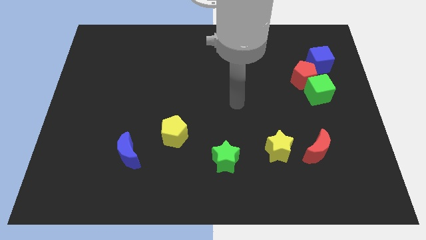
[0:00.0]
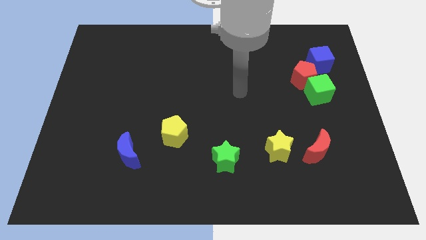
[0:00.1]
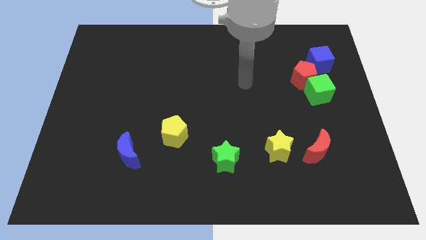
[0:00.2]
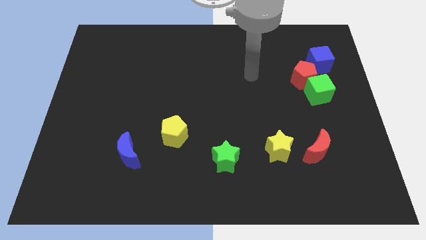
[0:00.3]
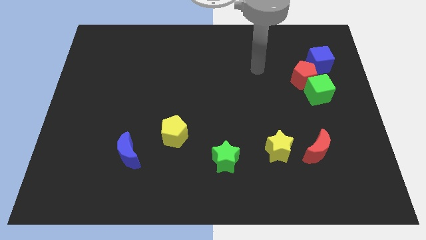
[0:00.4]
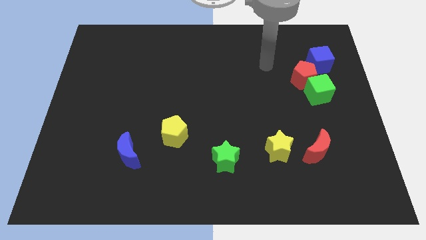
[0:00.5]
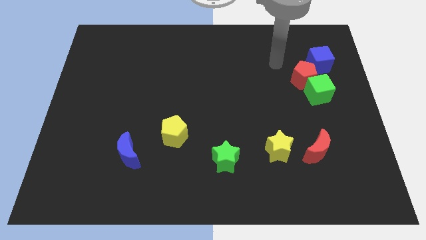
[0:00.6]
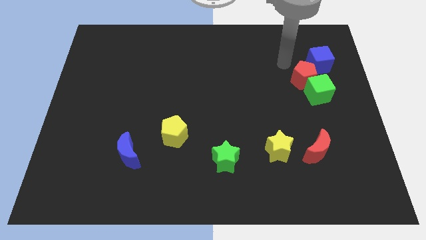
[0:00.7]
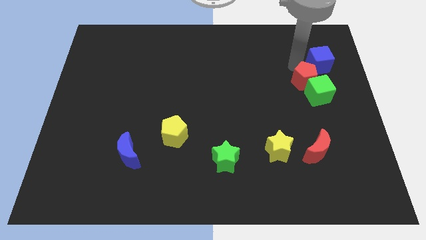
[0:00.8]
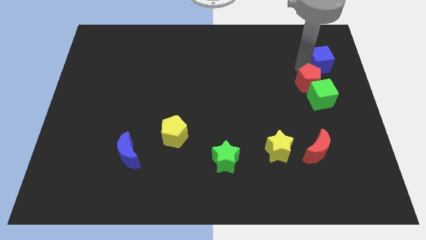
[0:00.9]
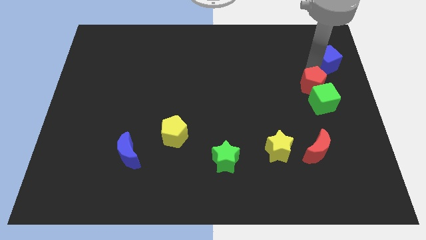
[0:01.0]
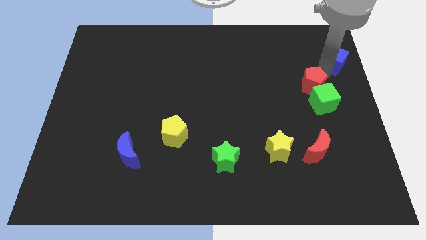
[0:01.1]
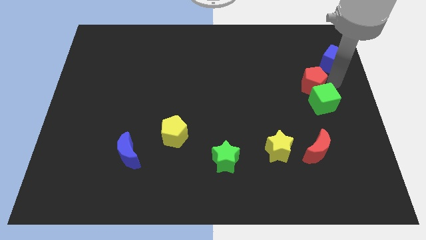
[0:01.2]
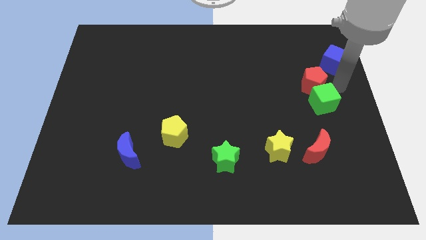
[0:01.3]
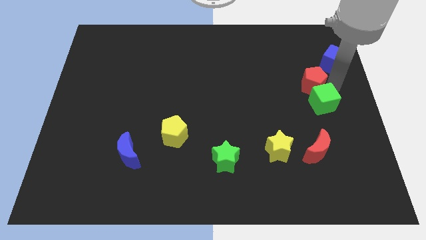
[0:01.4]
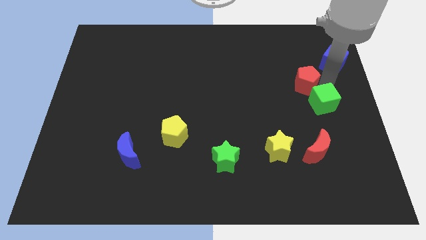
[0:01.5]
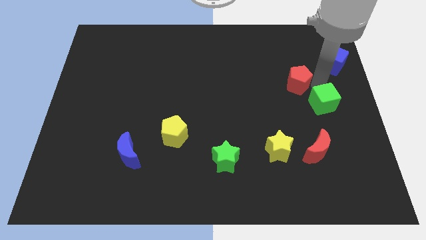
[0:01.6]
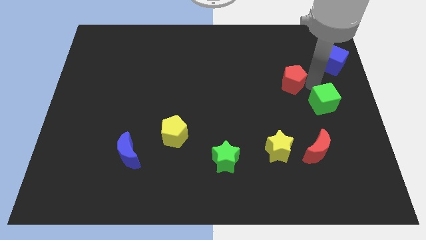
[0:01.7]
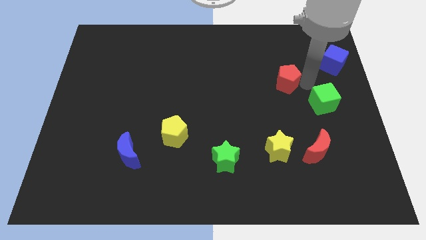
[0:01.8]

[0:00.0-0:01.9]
pull the red pentagon apart from the green cube and blue cube

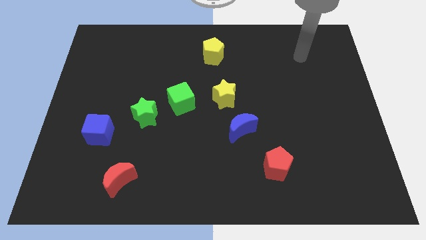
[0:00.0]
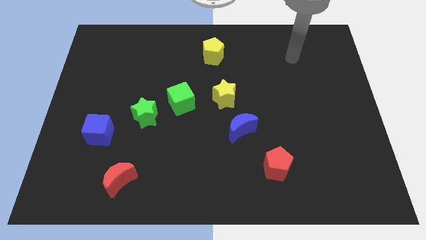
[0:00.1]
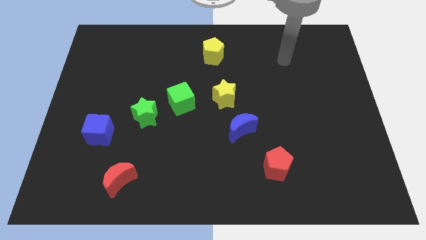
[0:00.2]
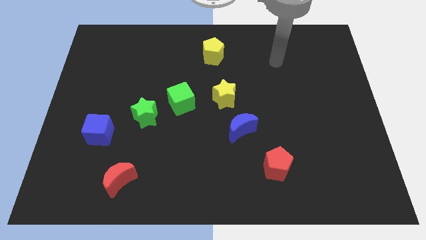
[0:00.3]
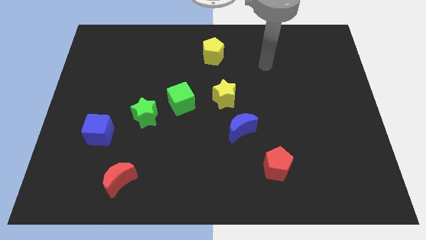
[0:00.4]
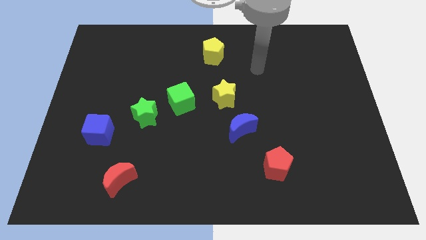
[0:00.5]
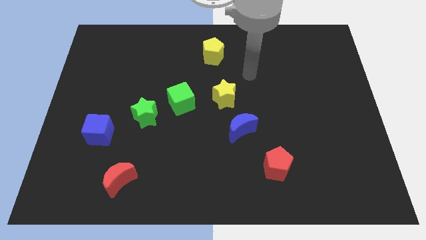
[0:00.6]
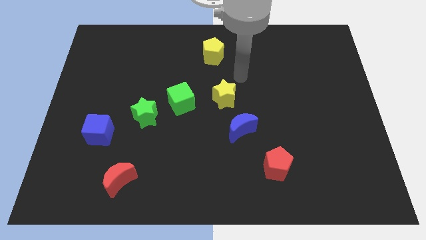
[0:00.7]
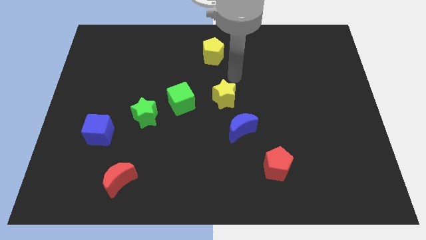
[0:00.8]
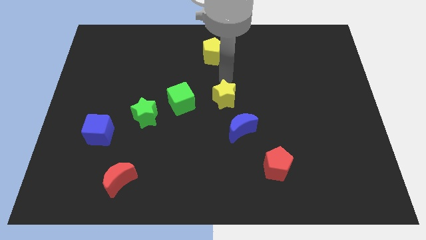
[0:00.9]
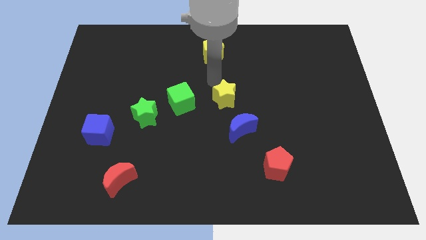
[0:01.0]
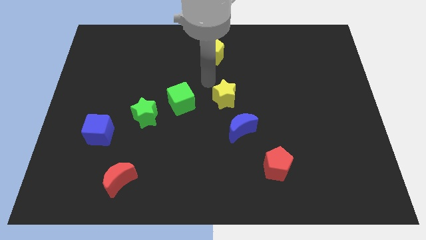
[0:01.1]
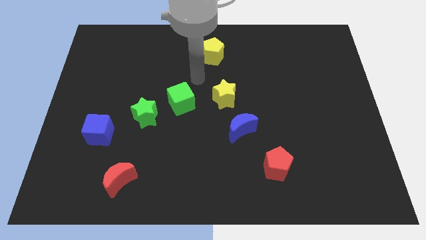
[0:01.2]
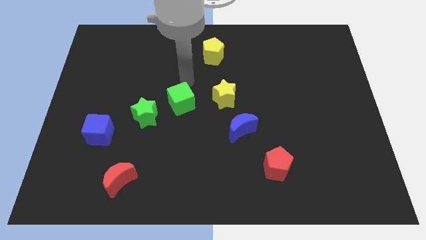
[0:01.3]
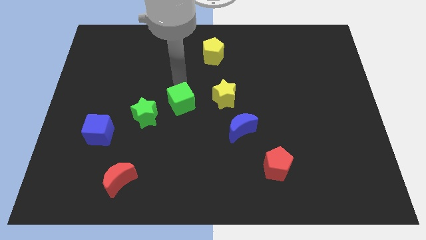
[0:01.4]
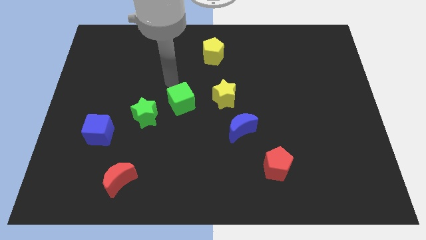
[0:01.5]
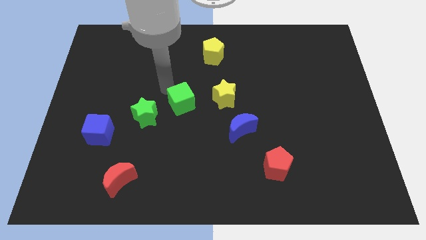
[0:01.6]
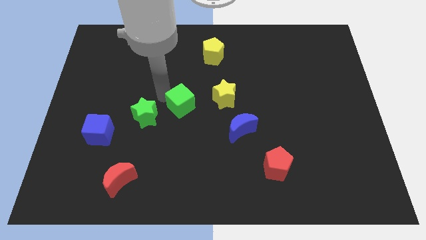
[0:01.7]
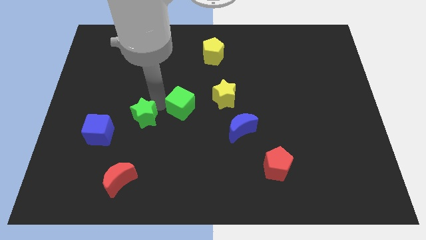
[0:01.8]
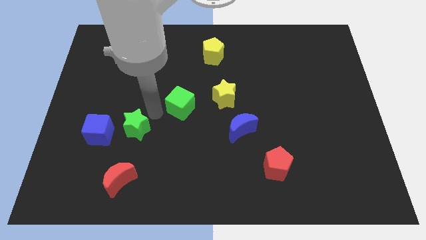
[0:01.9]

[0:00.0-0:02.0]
move the green cube away from the green star

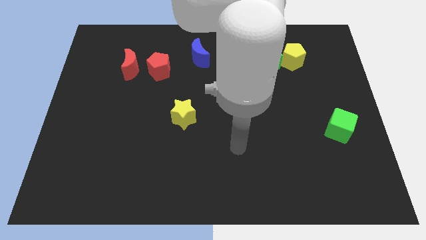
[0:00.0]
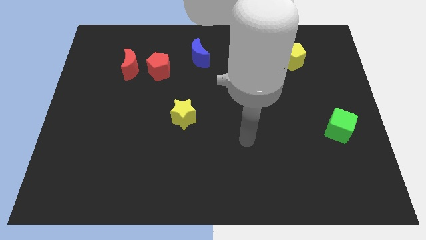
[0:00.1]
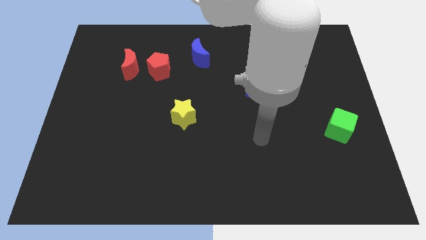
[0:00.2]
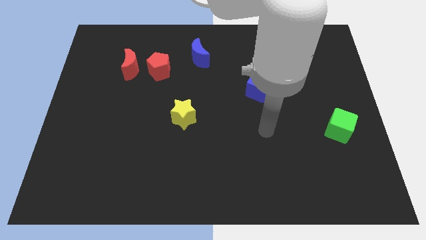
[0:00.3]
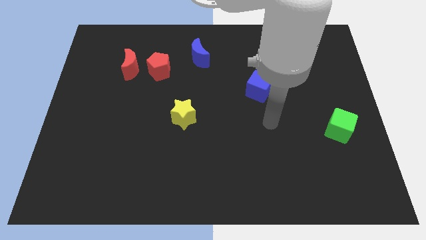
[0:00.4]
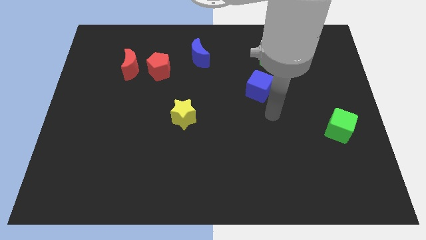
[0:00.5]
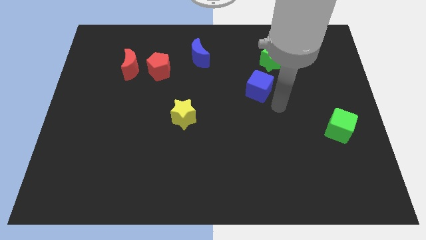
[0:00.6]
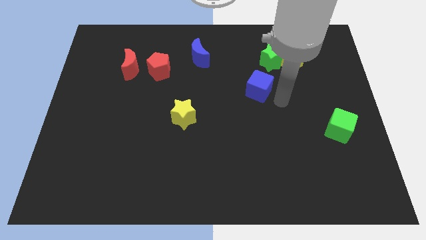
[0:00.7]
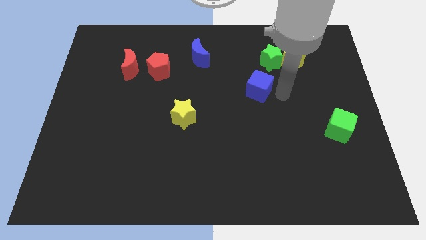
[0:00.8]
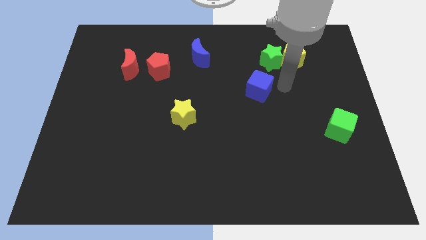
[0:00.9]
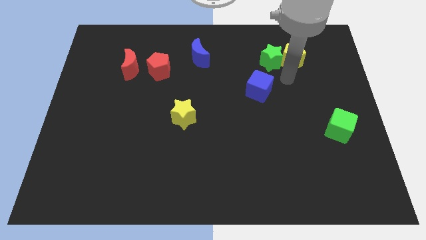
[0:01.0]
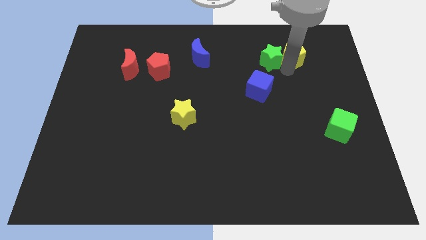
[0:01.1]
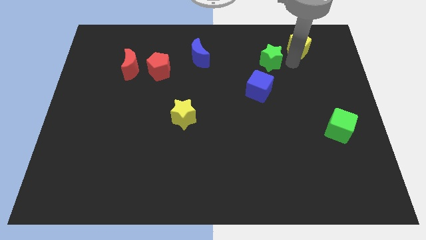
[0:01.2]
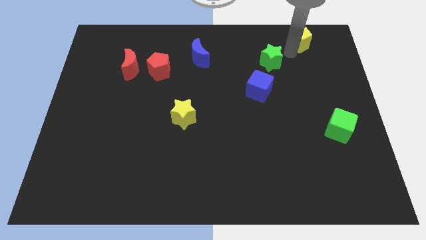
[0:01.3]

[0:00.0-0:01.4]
move the green star away from the yellow pentagon

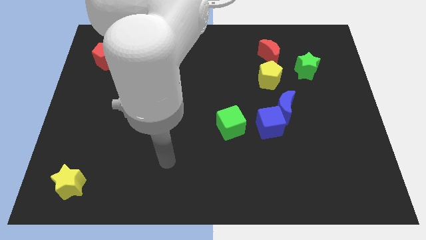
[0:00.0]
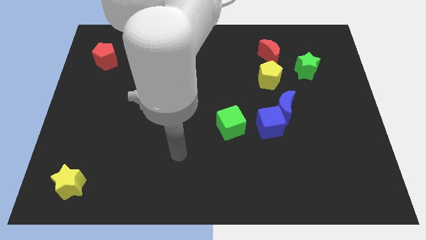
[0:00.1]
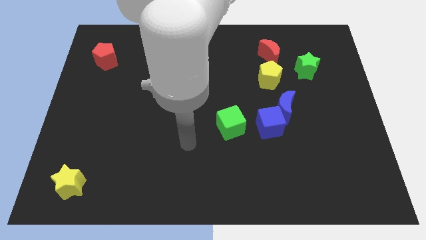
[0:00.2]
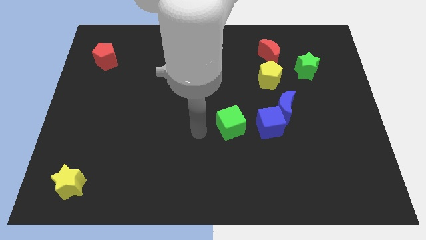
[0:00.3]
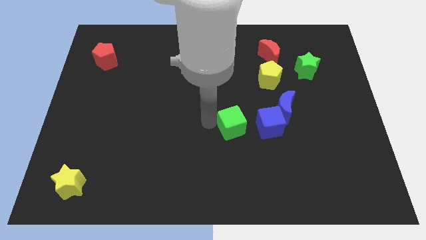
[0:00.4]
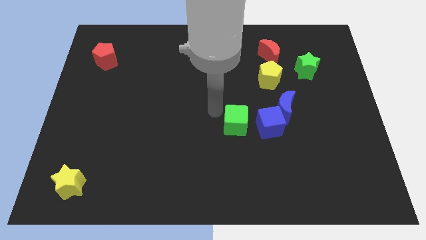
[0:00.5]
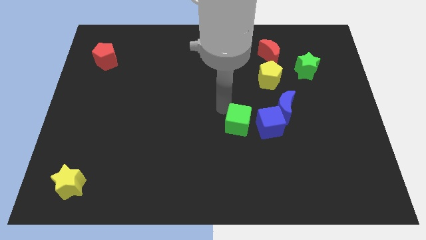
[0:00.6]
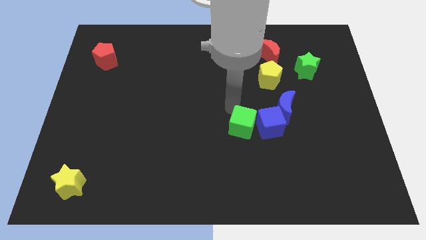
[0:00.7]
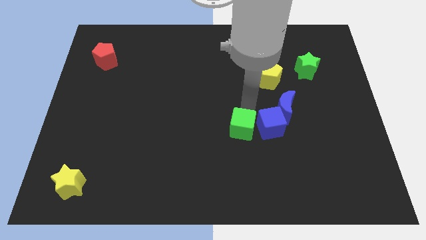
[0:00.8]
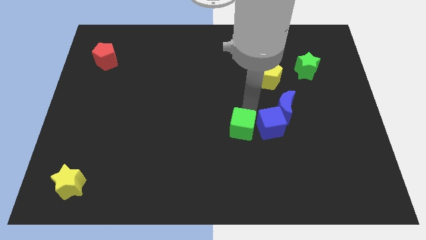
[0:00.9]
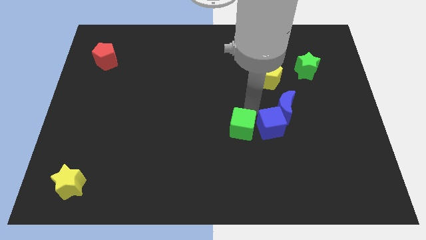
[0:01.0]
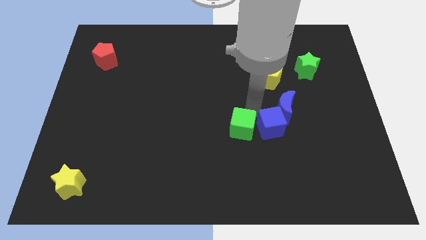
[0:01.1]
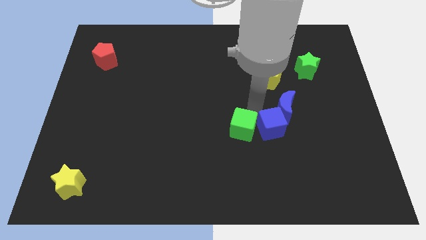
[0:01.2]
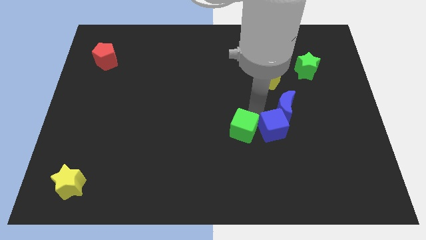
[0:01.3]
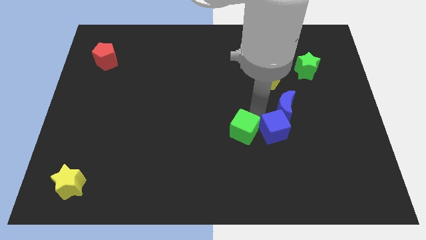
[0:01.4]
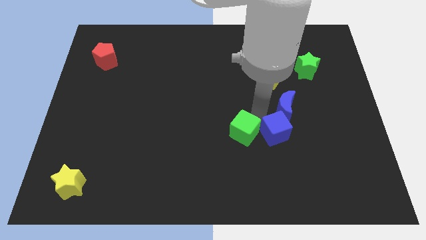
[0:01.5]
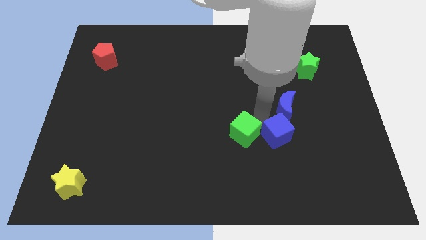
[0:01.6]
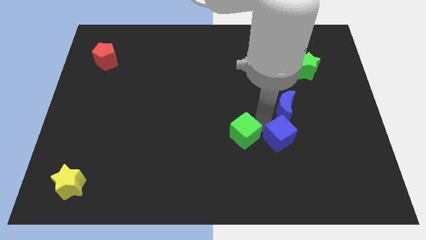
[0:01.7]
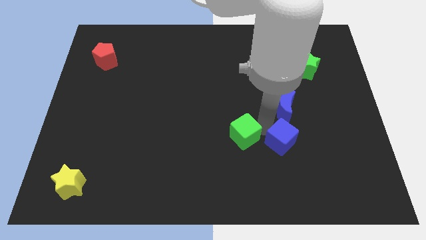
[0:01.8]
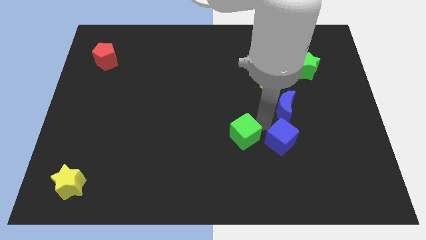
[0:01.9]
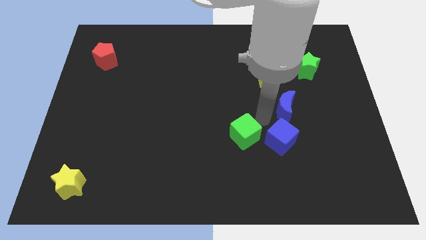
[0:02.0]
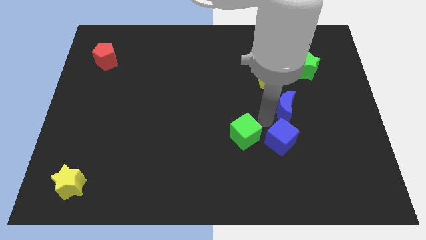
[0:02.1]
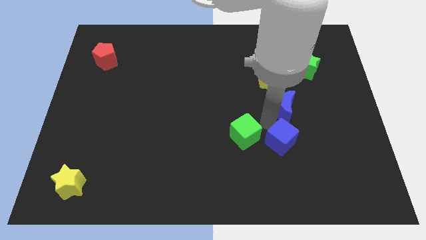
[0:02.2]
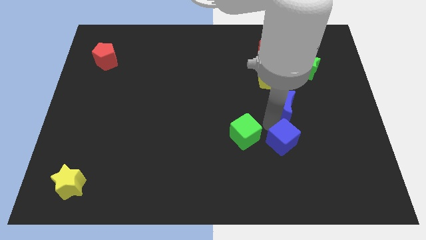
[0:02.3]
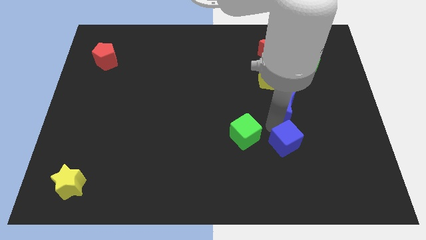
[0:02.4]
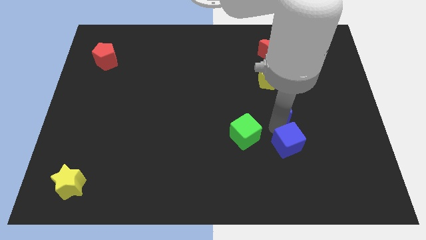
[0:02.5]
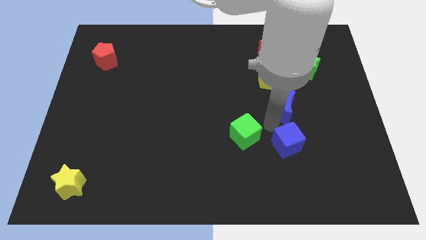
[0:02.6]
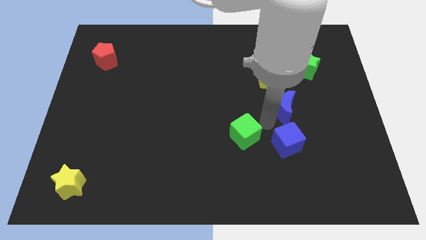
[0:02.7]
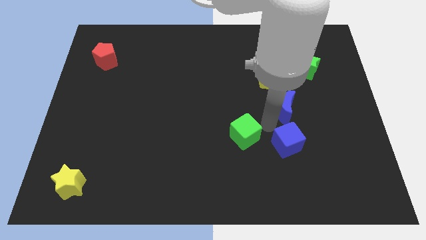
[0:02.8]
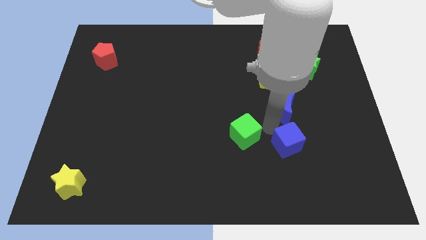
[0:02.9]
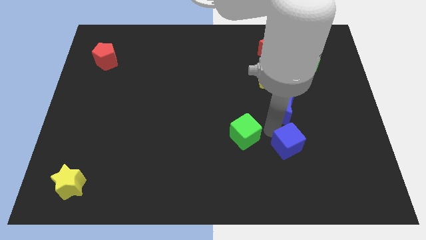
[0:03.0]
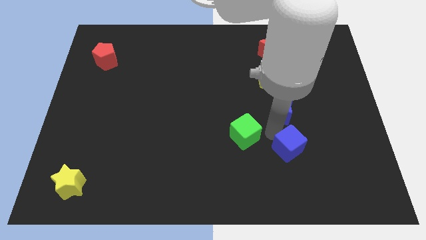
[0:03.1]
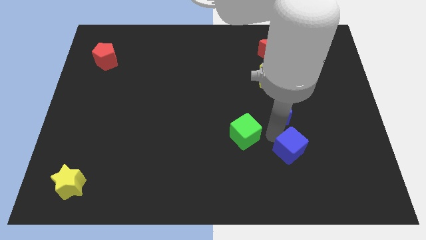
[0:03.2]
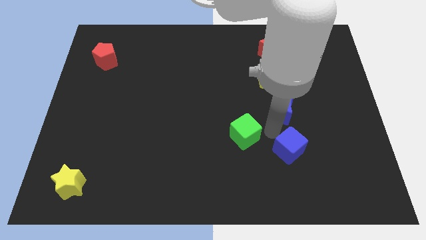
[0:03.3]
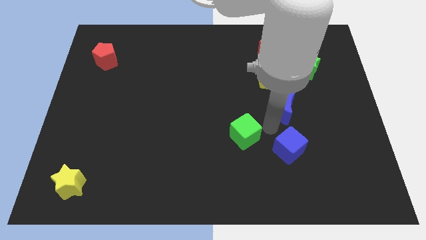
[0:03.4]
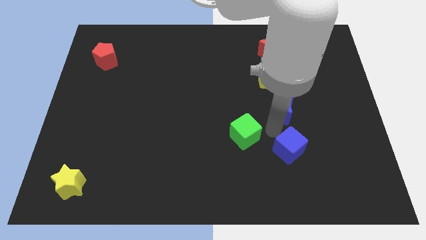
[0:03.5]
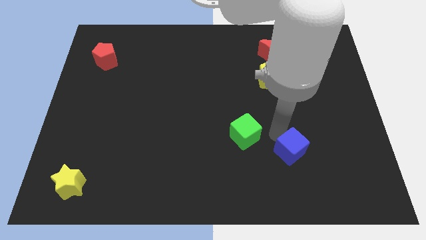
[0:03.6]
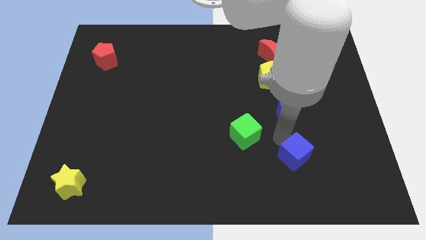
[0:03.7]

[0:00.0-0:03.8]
separate the blue cube from the blue moon and green cube

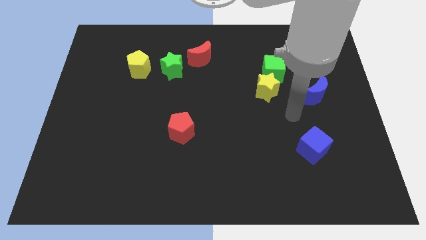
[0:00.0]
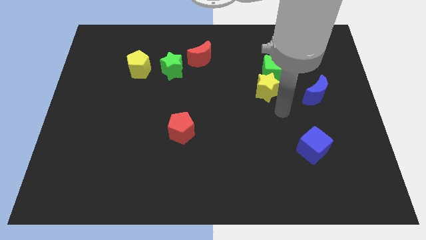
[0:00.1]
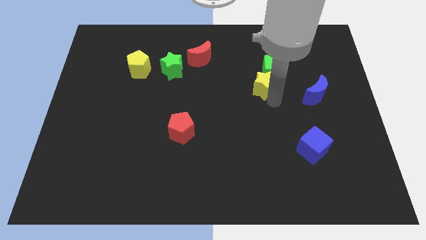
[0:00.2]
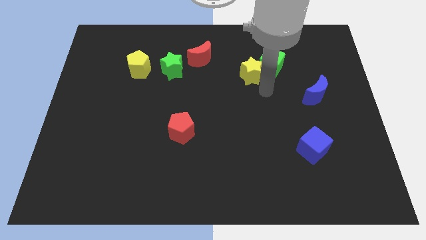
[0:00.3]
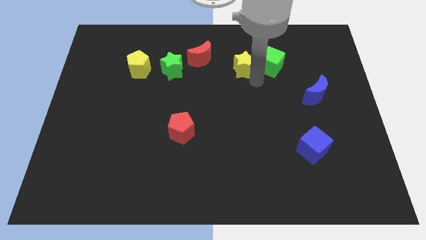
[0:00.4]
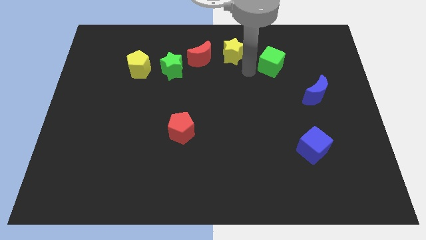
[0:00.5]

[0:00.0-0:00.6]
separate the green cube from the yellow star
